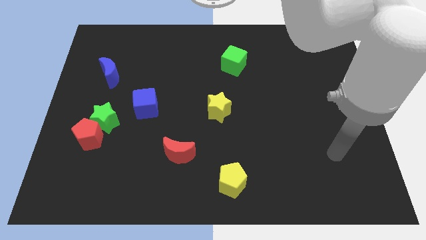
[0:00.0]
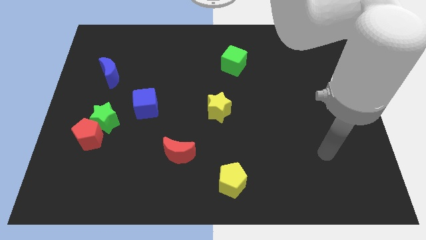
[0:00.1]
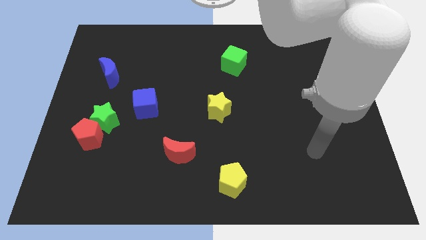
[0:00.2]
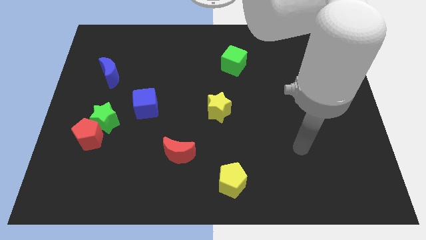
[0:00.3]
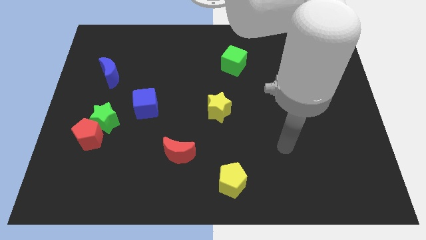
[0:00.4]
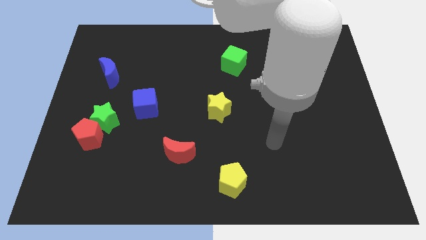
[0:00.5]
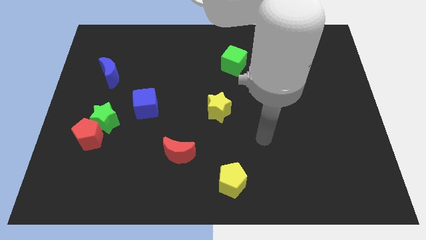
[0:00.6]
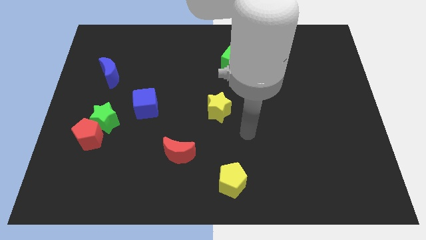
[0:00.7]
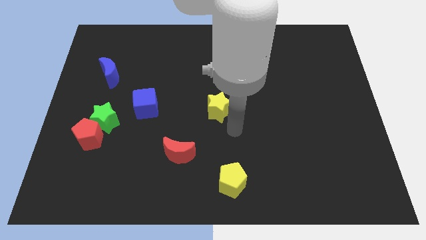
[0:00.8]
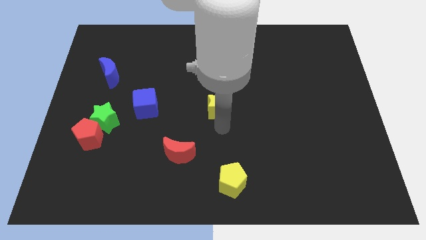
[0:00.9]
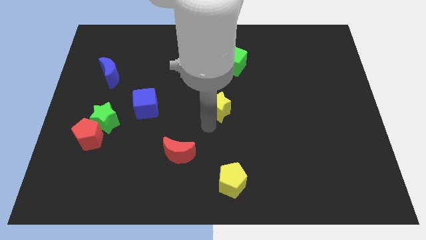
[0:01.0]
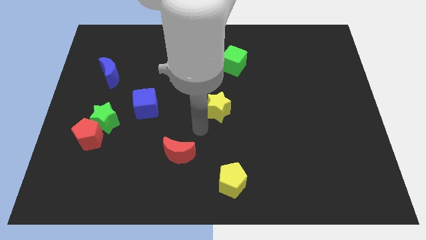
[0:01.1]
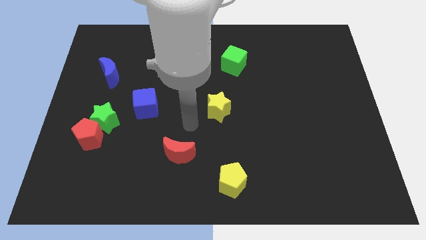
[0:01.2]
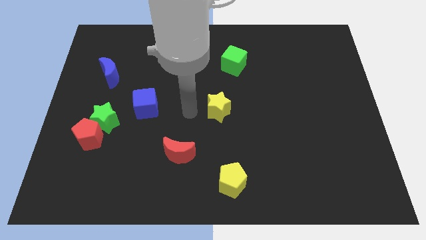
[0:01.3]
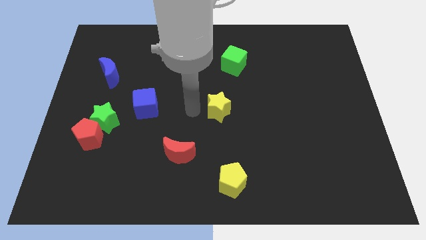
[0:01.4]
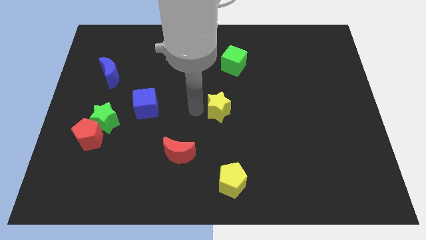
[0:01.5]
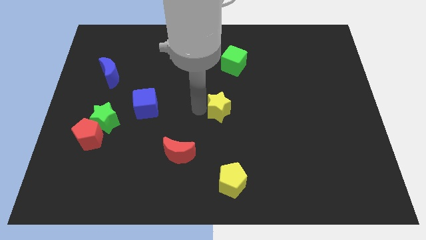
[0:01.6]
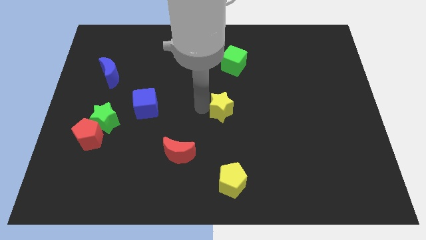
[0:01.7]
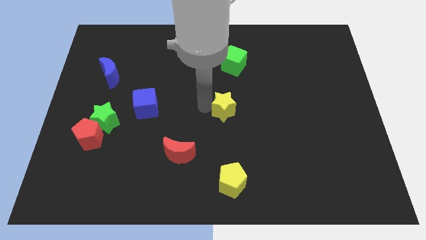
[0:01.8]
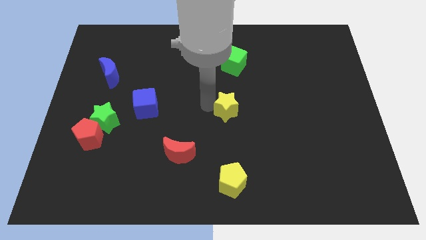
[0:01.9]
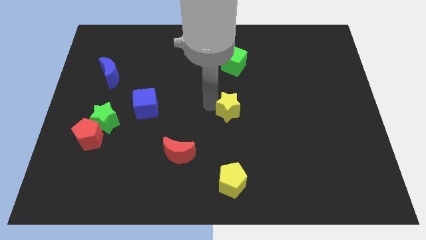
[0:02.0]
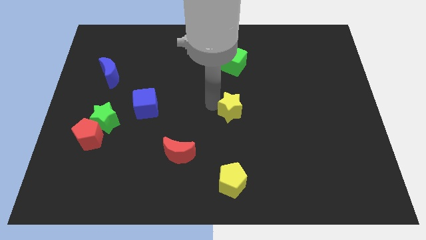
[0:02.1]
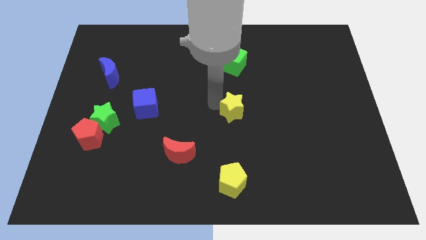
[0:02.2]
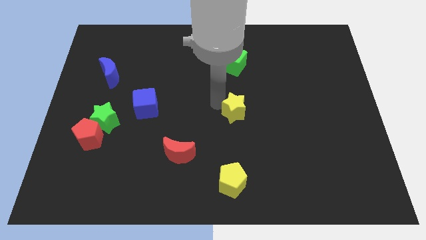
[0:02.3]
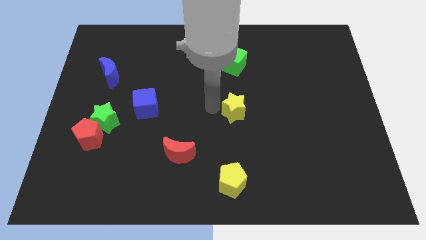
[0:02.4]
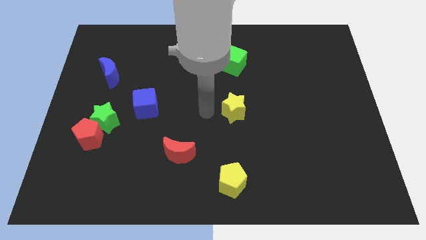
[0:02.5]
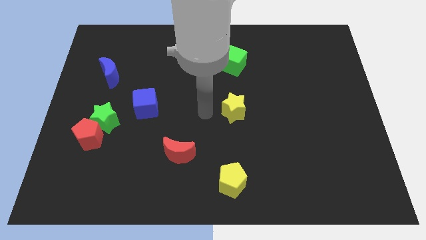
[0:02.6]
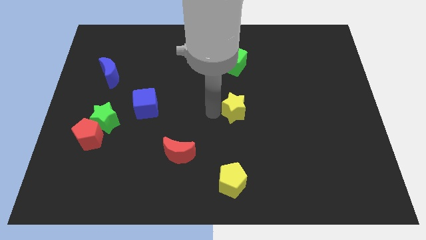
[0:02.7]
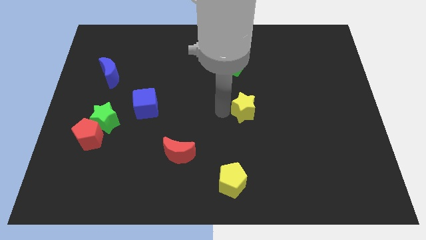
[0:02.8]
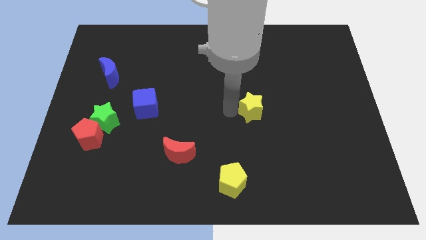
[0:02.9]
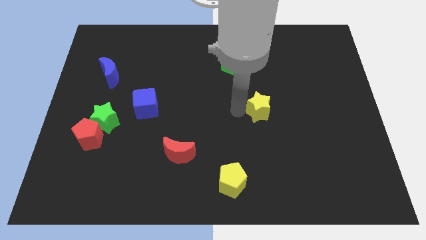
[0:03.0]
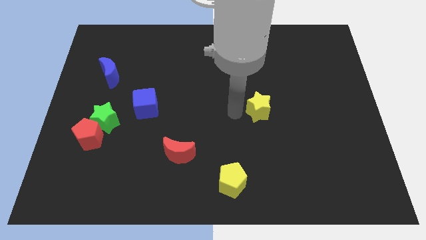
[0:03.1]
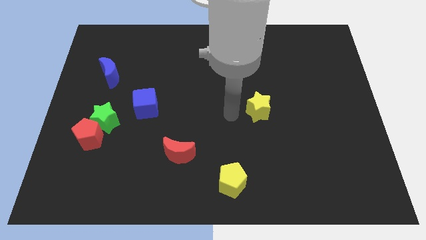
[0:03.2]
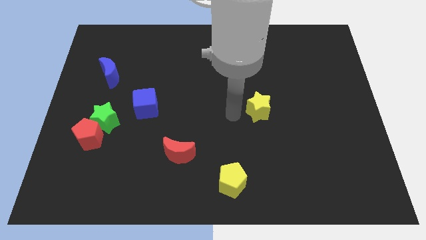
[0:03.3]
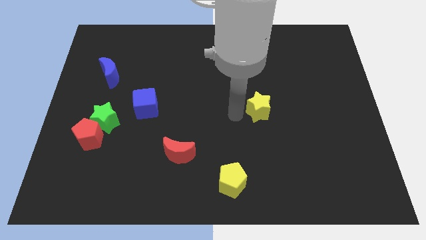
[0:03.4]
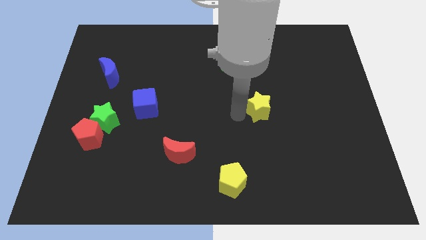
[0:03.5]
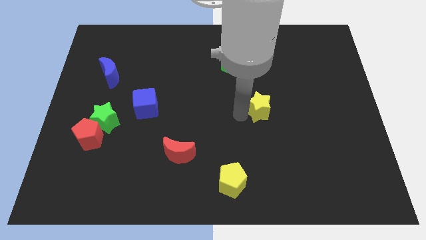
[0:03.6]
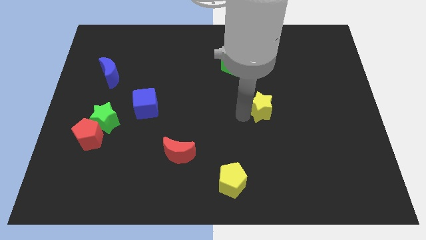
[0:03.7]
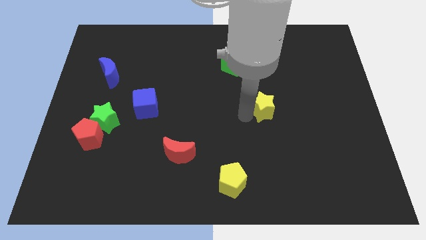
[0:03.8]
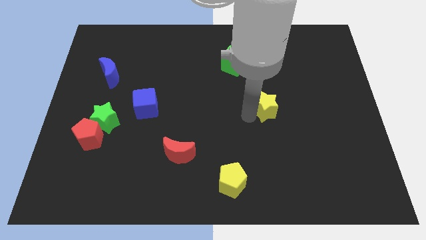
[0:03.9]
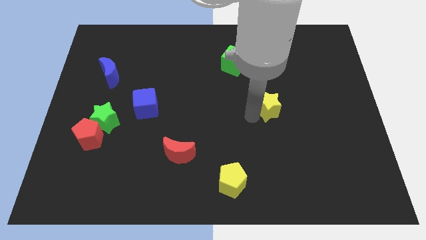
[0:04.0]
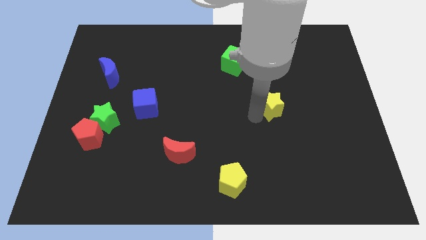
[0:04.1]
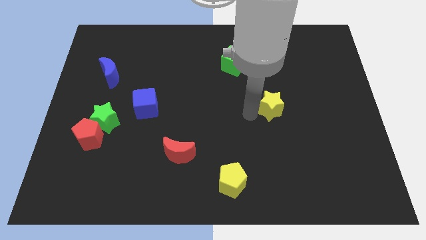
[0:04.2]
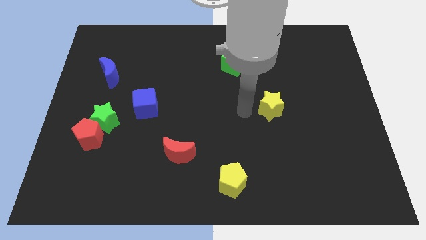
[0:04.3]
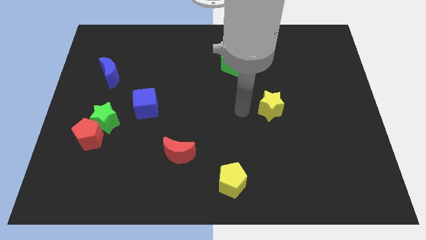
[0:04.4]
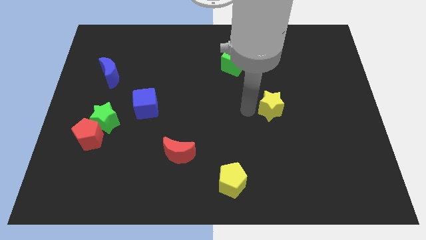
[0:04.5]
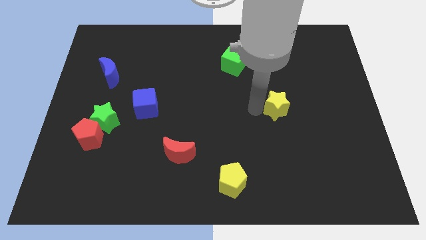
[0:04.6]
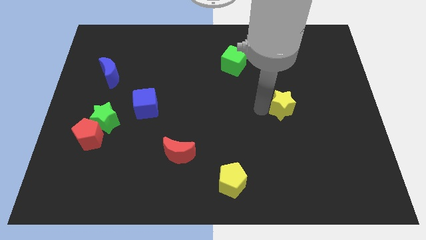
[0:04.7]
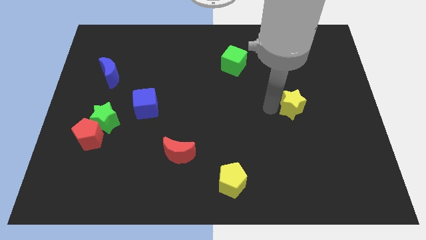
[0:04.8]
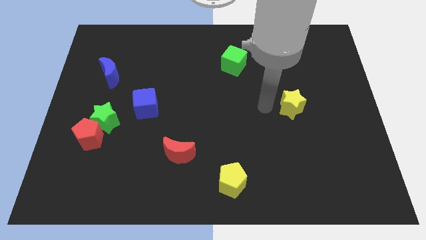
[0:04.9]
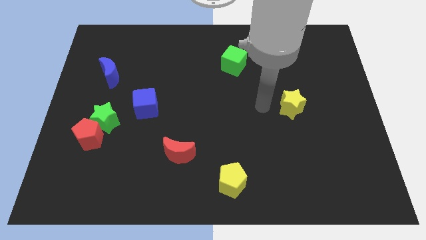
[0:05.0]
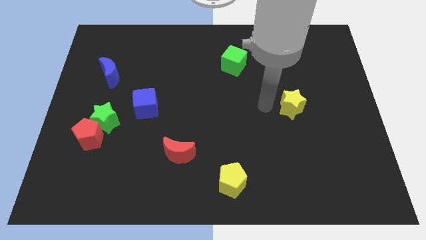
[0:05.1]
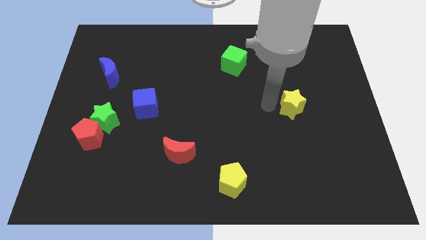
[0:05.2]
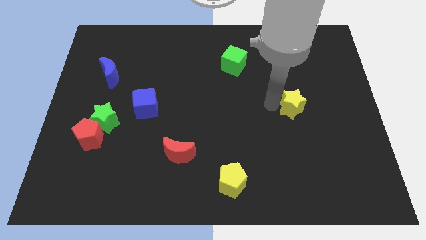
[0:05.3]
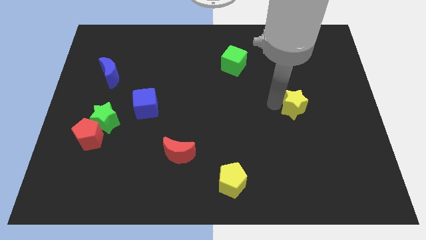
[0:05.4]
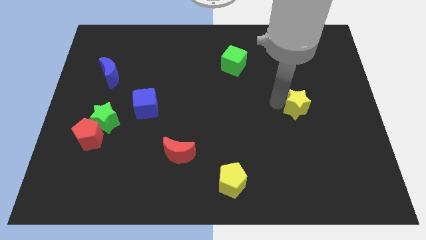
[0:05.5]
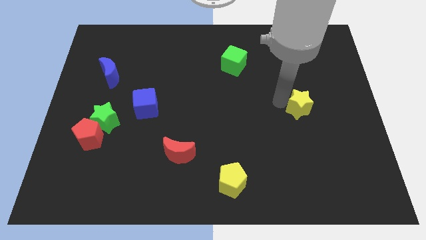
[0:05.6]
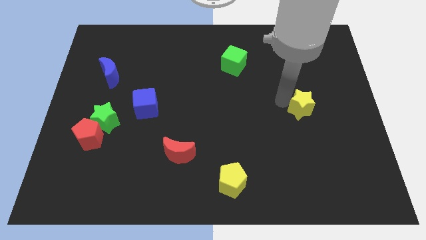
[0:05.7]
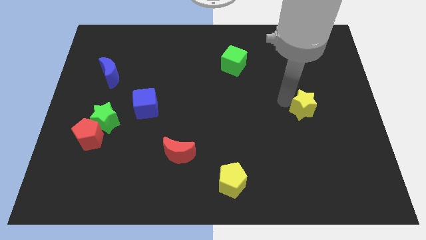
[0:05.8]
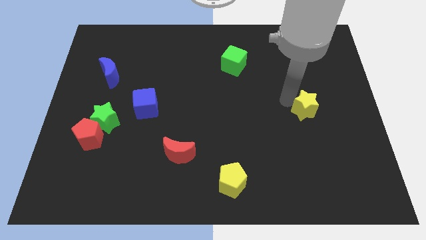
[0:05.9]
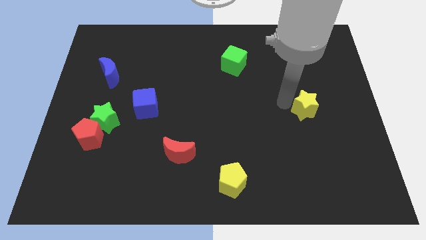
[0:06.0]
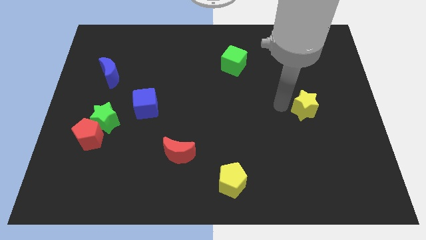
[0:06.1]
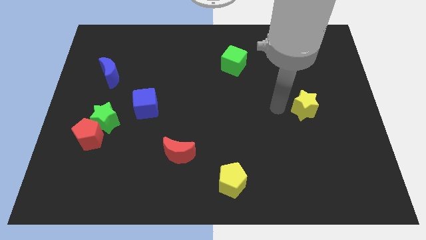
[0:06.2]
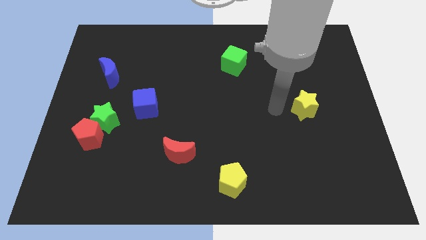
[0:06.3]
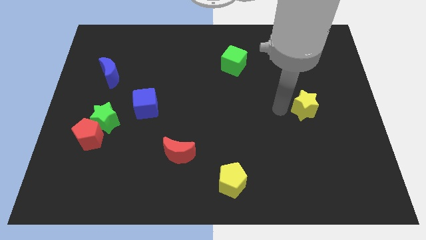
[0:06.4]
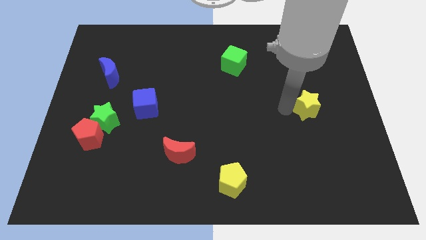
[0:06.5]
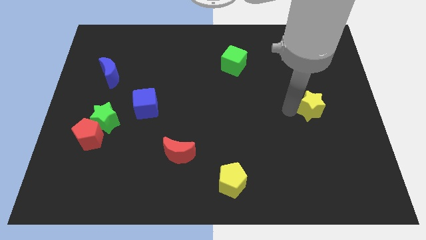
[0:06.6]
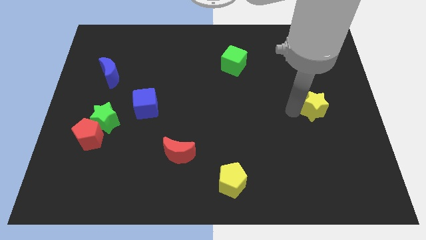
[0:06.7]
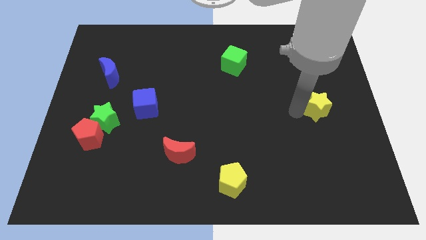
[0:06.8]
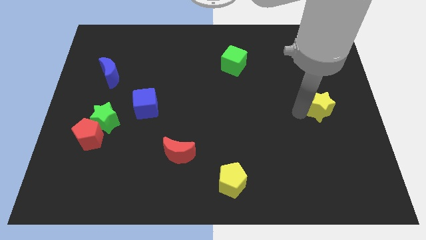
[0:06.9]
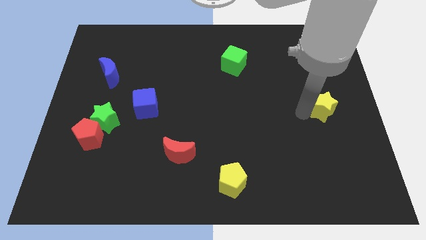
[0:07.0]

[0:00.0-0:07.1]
push the yellow star to the center right
